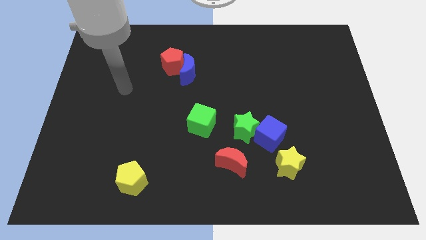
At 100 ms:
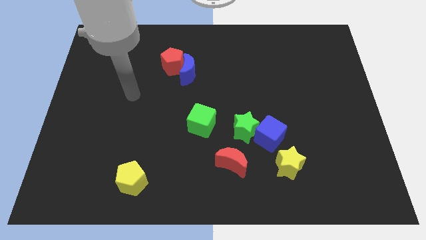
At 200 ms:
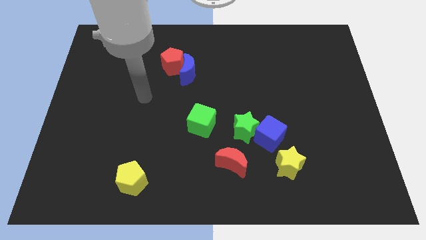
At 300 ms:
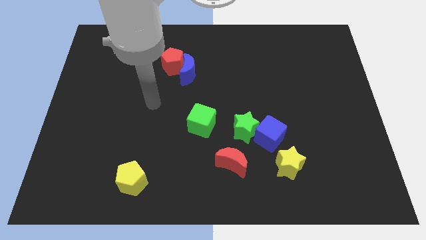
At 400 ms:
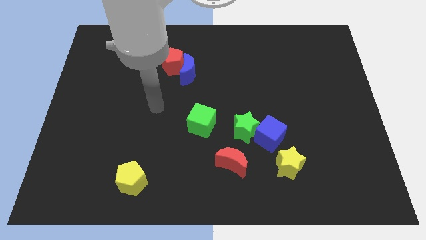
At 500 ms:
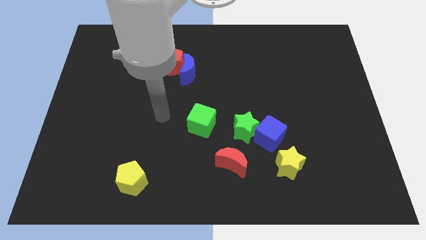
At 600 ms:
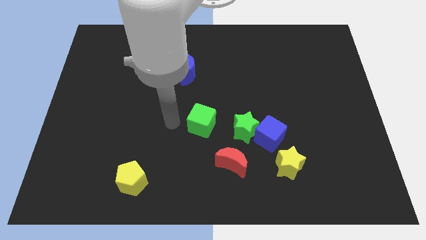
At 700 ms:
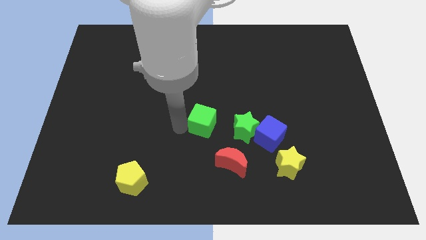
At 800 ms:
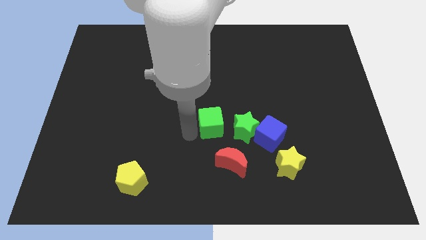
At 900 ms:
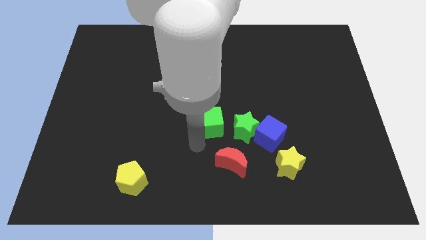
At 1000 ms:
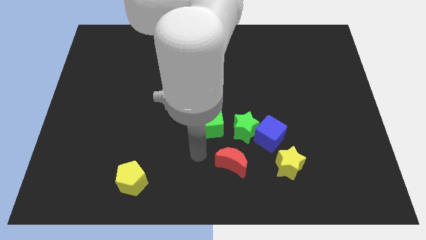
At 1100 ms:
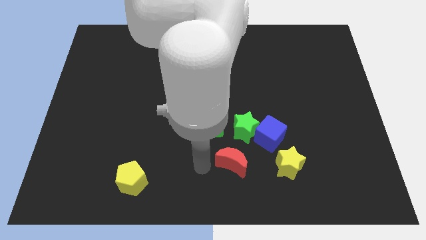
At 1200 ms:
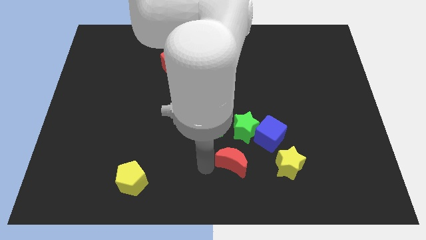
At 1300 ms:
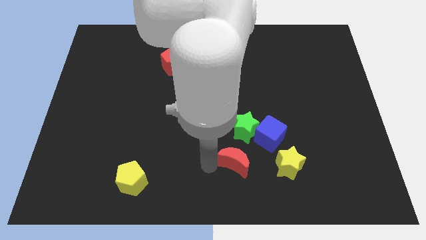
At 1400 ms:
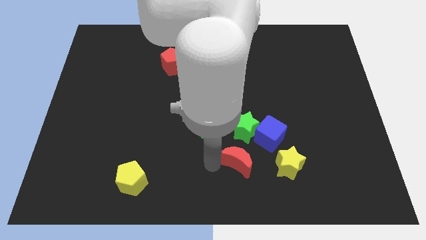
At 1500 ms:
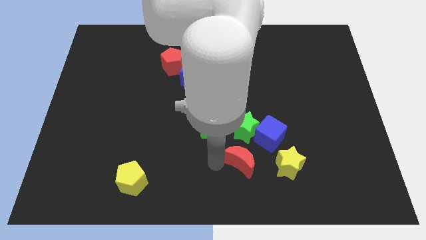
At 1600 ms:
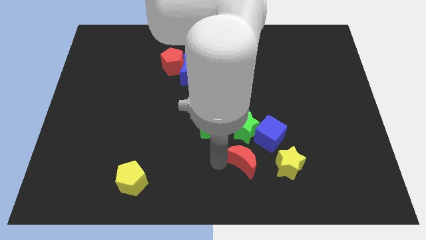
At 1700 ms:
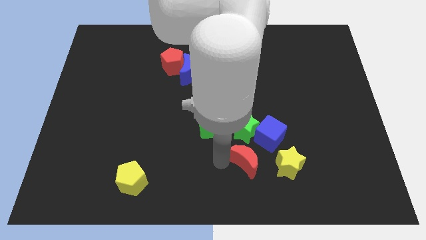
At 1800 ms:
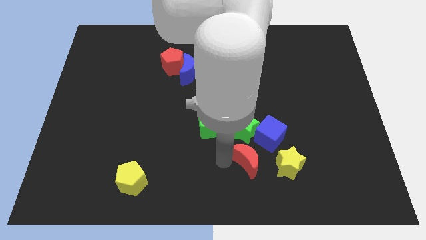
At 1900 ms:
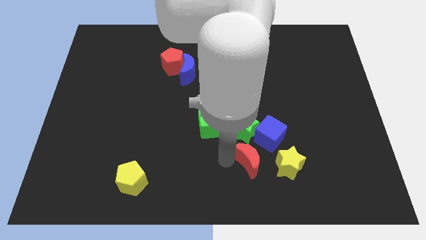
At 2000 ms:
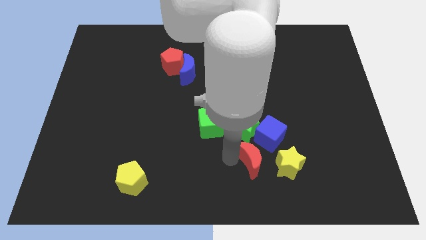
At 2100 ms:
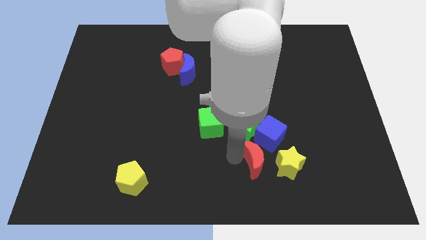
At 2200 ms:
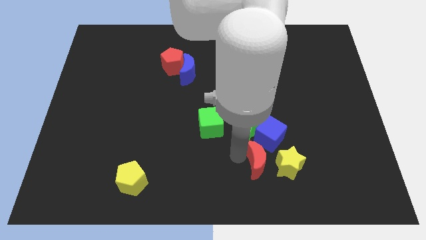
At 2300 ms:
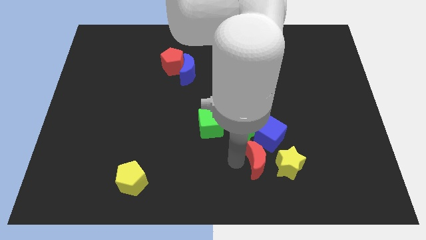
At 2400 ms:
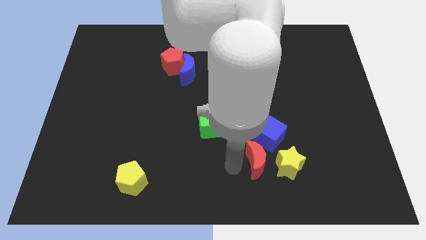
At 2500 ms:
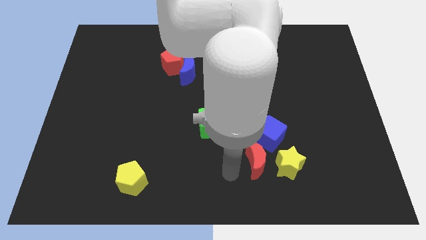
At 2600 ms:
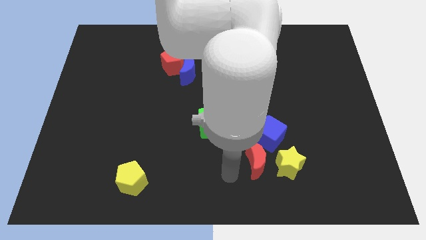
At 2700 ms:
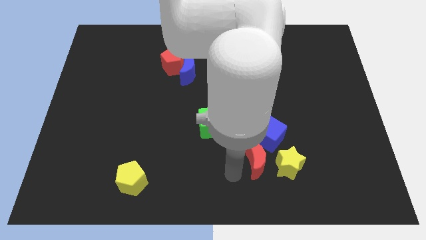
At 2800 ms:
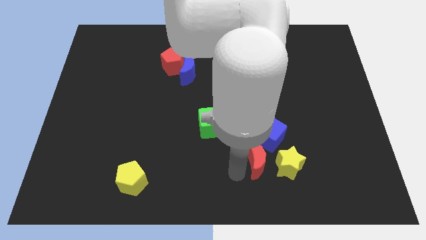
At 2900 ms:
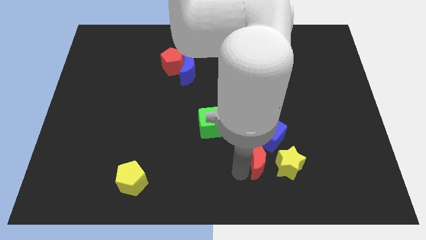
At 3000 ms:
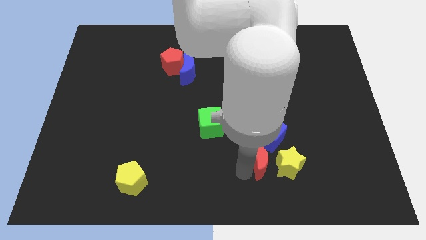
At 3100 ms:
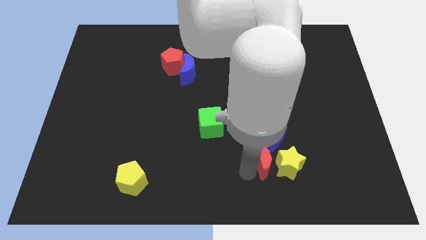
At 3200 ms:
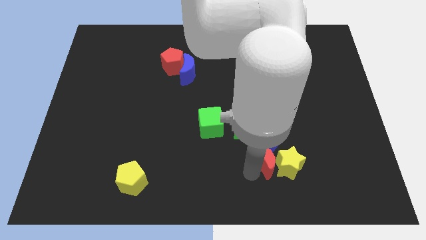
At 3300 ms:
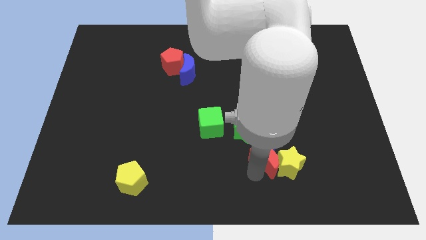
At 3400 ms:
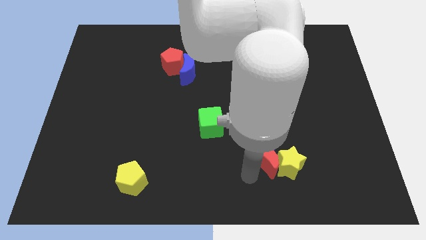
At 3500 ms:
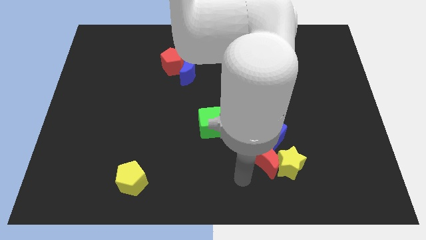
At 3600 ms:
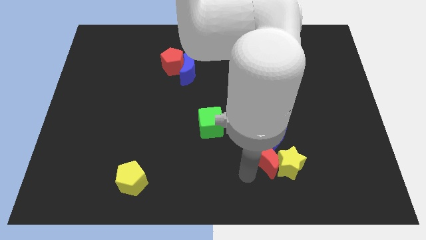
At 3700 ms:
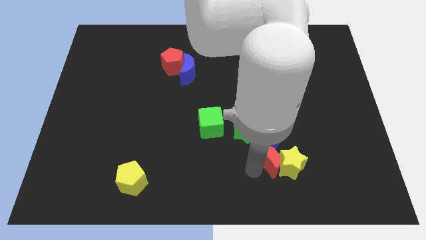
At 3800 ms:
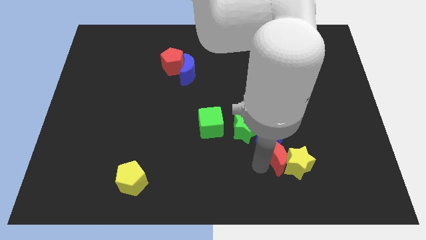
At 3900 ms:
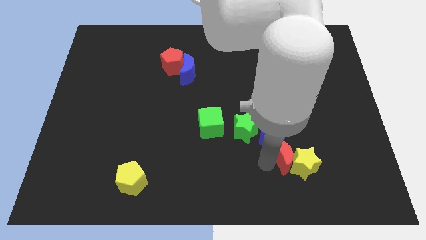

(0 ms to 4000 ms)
slightly move the red moon up and to the right diagonally

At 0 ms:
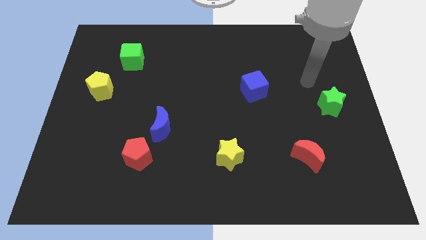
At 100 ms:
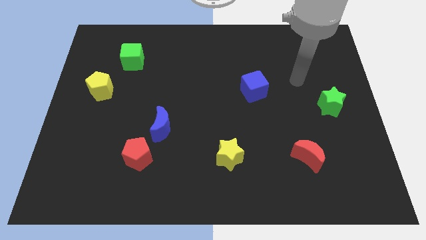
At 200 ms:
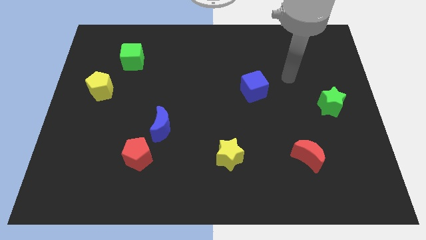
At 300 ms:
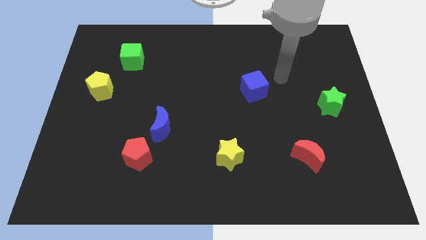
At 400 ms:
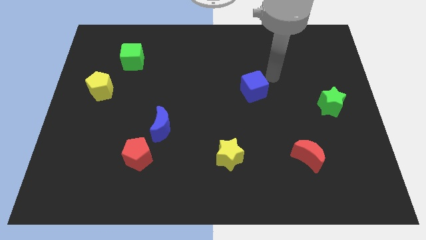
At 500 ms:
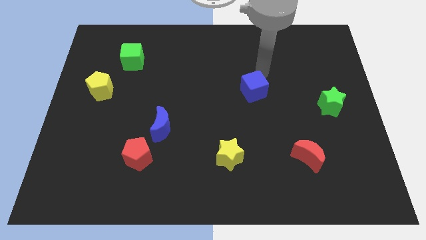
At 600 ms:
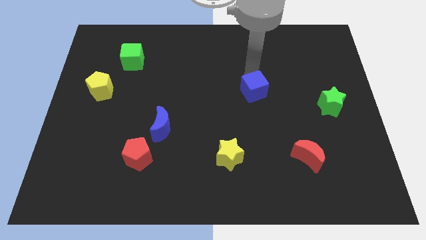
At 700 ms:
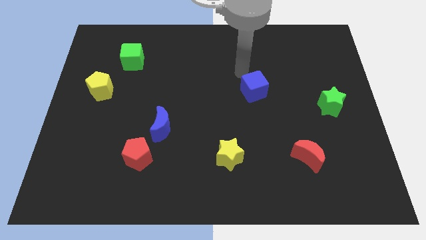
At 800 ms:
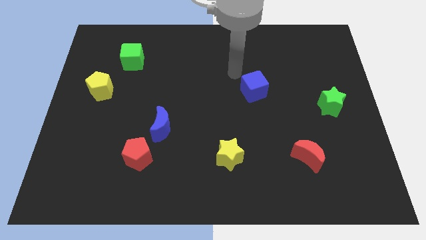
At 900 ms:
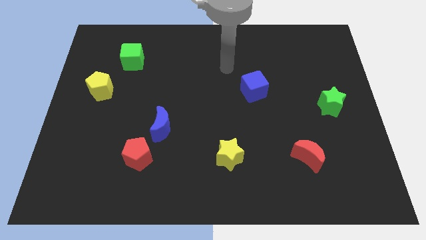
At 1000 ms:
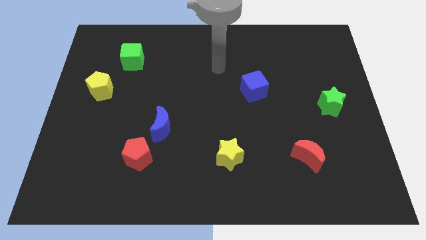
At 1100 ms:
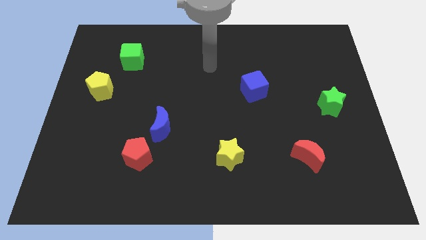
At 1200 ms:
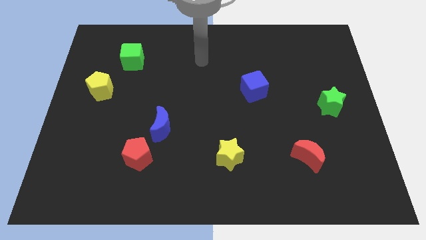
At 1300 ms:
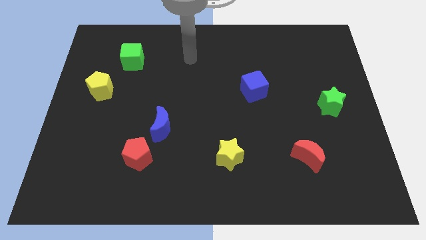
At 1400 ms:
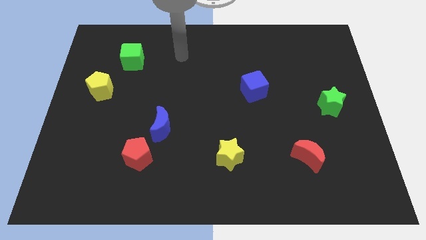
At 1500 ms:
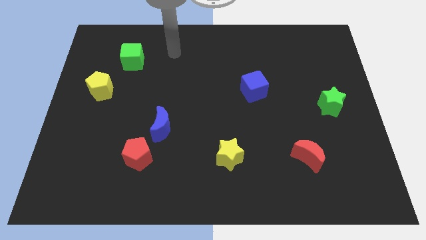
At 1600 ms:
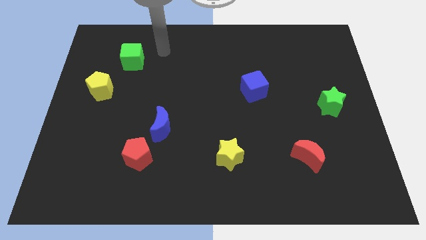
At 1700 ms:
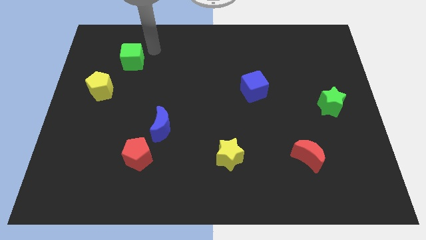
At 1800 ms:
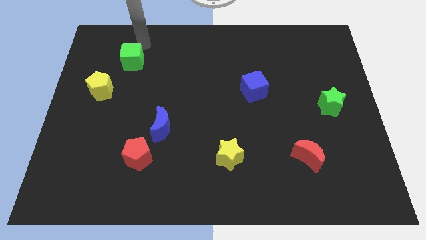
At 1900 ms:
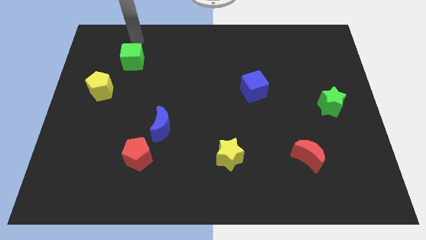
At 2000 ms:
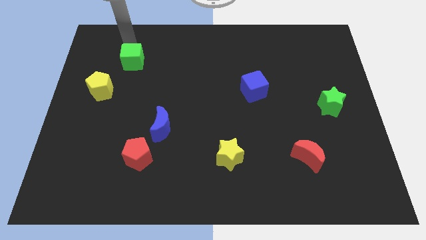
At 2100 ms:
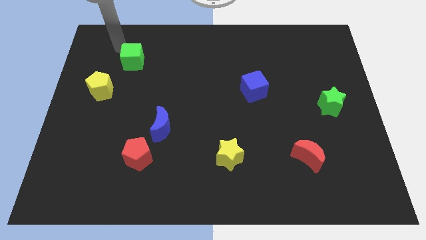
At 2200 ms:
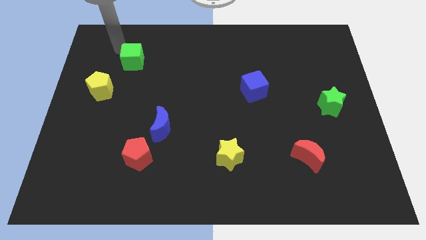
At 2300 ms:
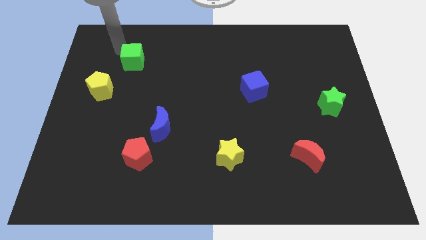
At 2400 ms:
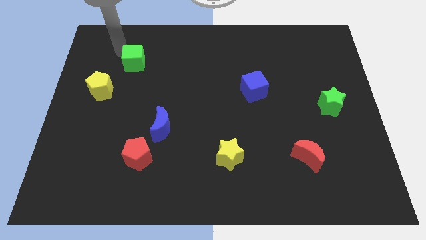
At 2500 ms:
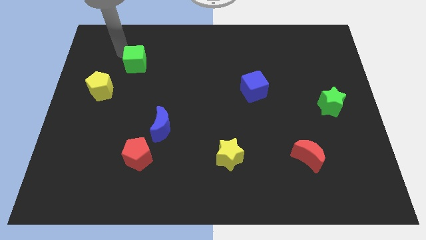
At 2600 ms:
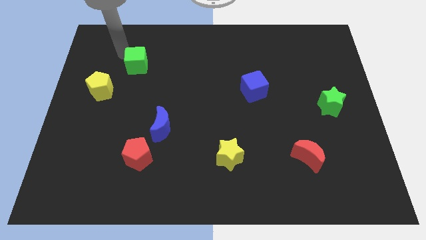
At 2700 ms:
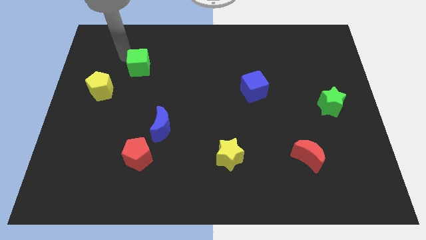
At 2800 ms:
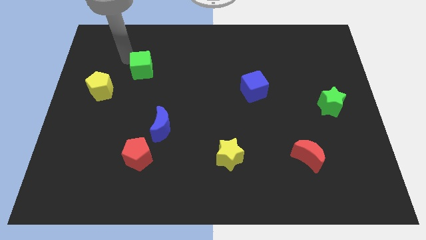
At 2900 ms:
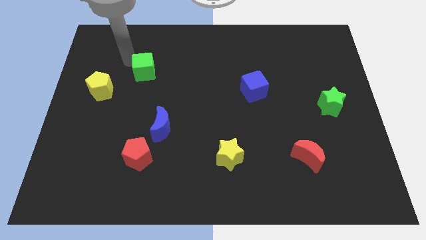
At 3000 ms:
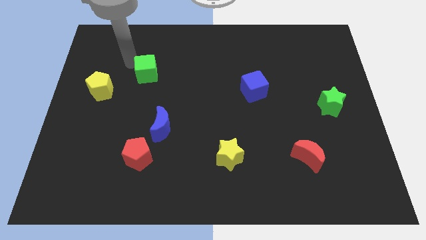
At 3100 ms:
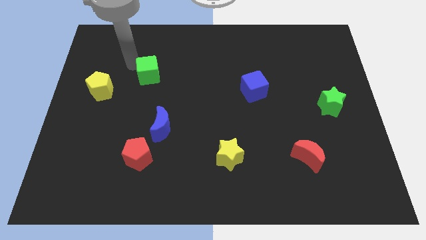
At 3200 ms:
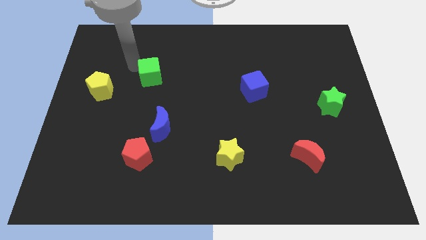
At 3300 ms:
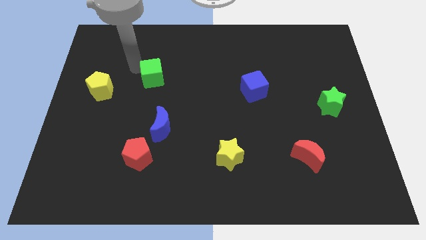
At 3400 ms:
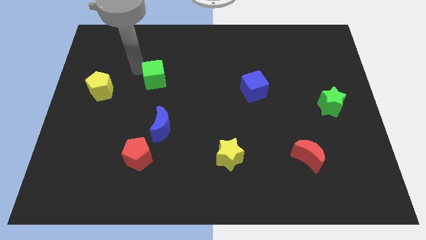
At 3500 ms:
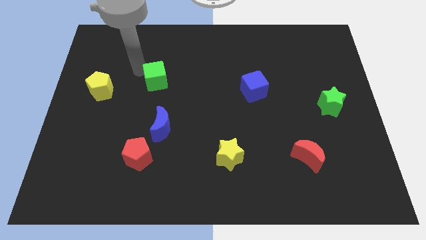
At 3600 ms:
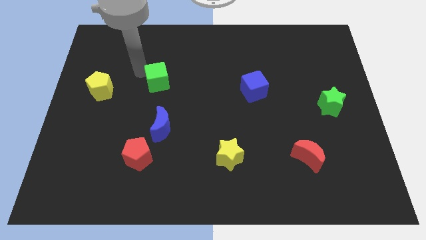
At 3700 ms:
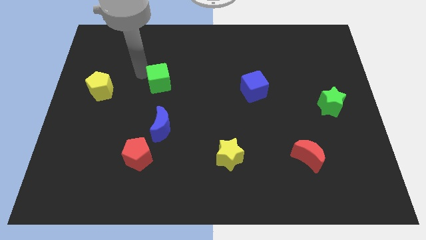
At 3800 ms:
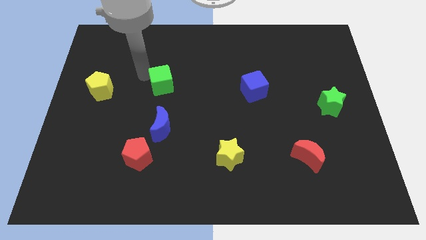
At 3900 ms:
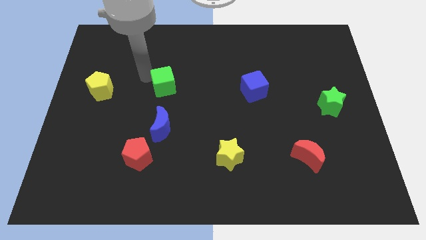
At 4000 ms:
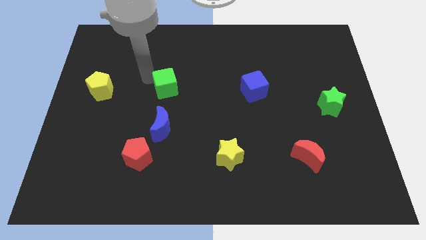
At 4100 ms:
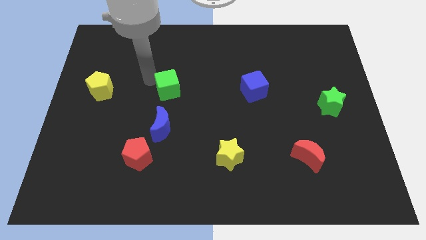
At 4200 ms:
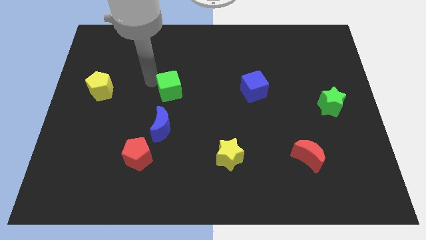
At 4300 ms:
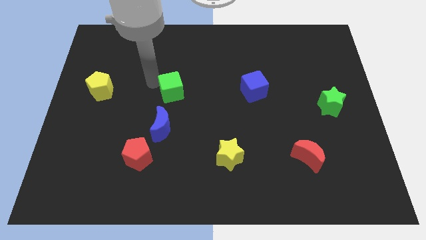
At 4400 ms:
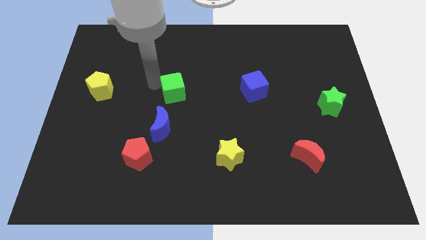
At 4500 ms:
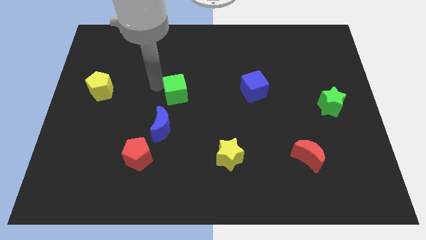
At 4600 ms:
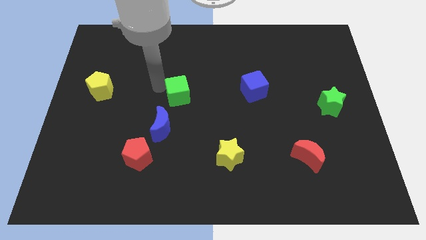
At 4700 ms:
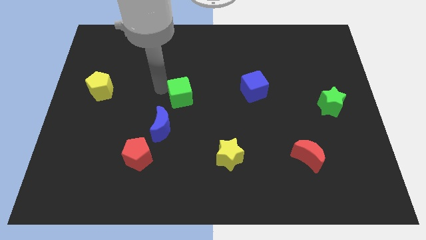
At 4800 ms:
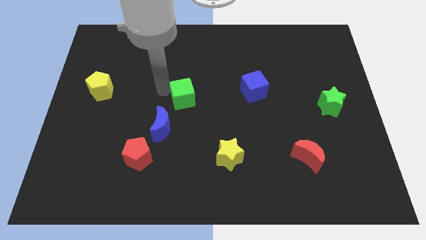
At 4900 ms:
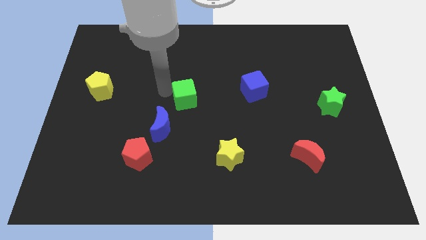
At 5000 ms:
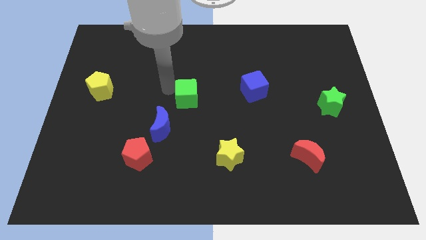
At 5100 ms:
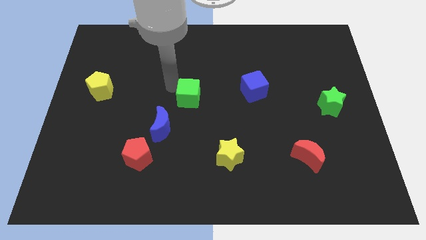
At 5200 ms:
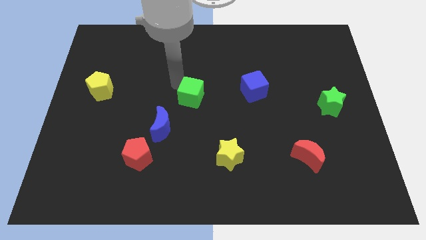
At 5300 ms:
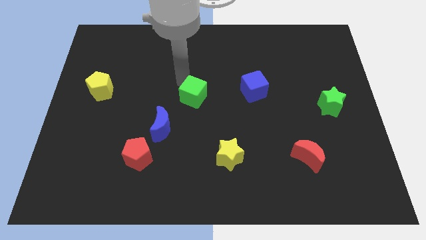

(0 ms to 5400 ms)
push the green cube downwards and to the right
